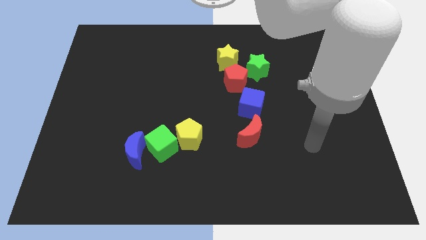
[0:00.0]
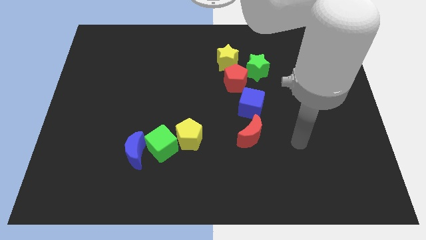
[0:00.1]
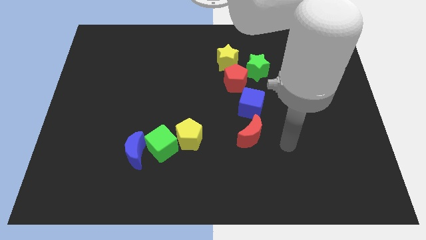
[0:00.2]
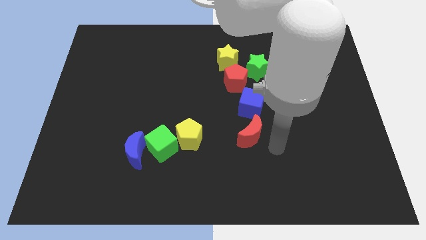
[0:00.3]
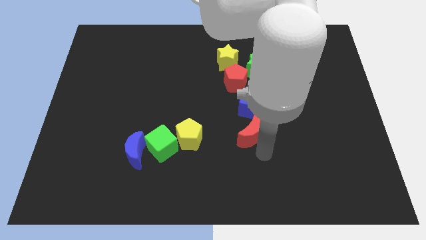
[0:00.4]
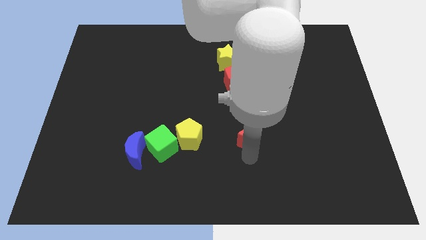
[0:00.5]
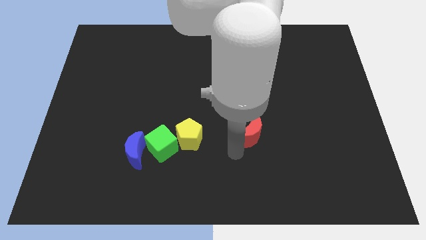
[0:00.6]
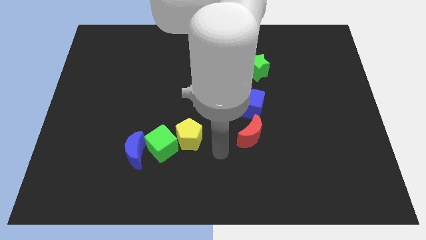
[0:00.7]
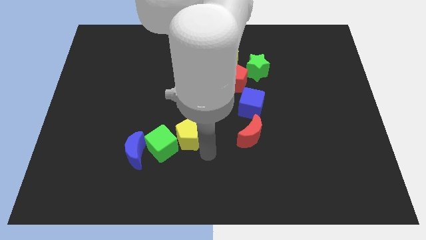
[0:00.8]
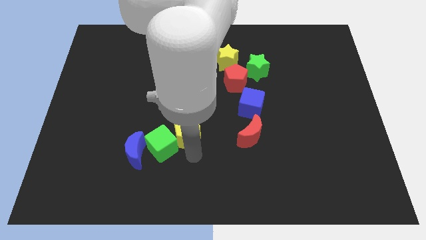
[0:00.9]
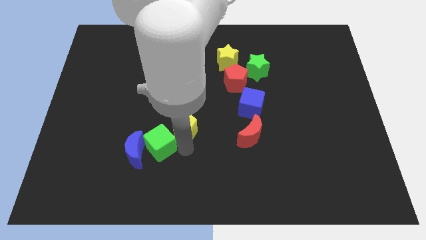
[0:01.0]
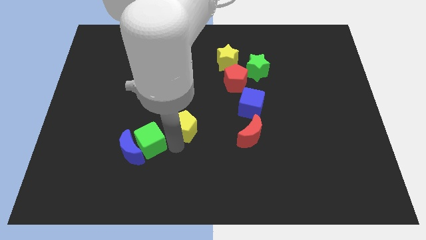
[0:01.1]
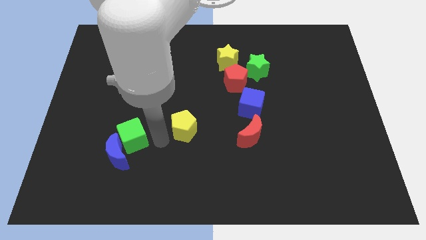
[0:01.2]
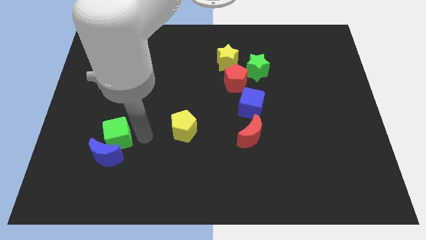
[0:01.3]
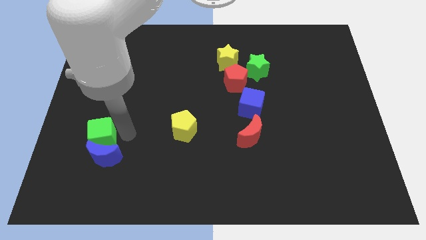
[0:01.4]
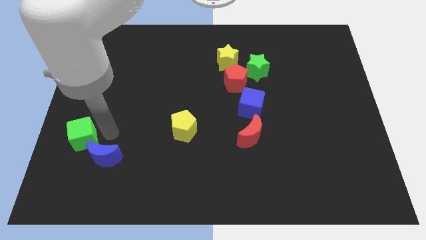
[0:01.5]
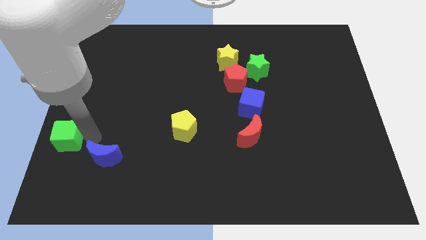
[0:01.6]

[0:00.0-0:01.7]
move the blue moon away from the green cube

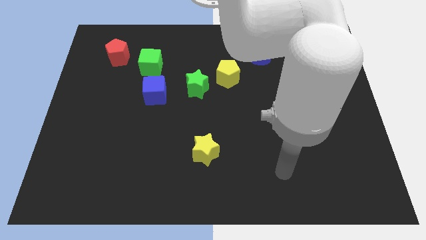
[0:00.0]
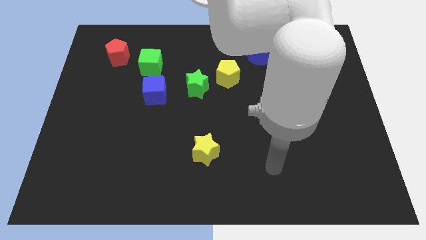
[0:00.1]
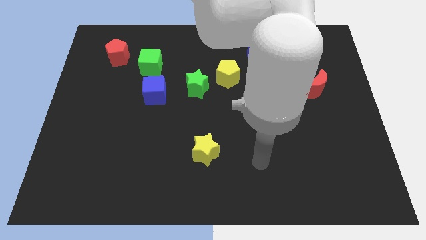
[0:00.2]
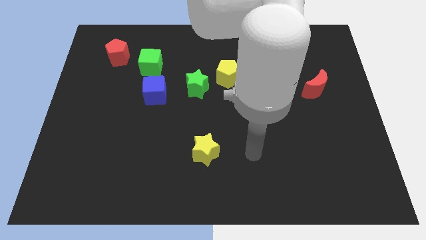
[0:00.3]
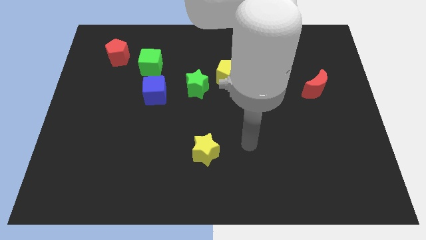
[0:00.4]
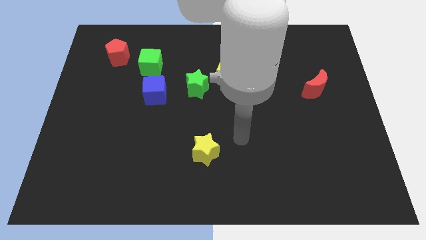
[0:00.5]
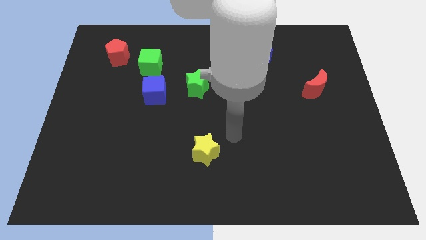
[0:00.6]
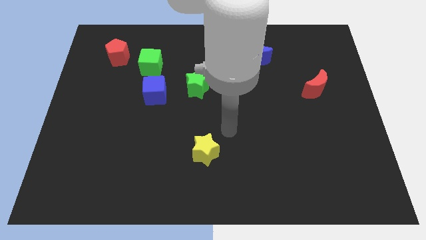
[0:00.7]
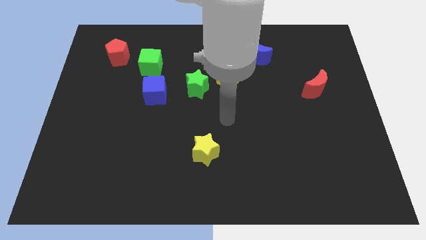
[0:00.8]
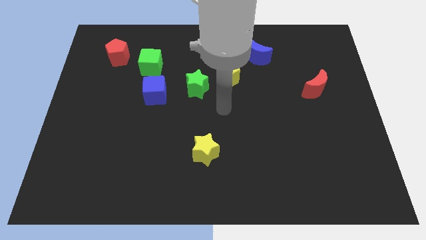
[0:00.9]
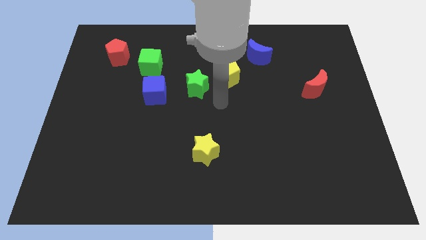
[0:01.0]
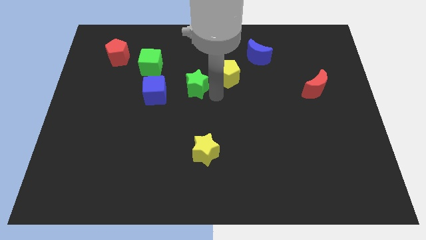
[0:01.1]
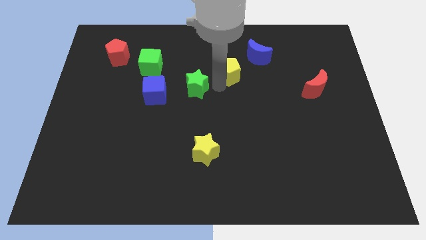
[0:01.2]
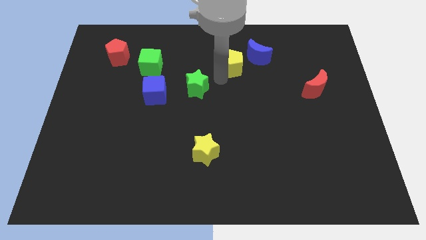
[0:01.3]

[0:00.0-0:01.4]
pull the green star apart from the yellow pentagon

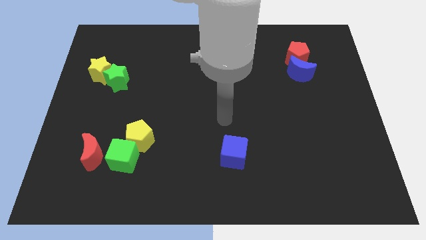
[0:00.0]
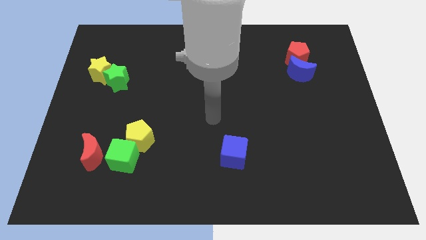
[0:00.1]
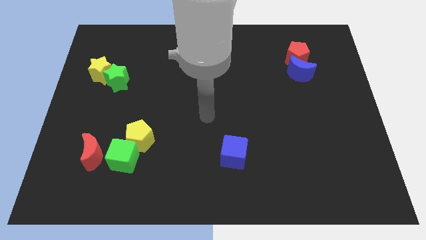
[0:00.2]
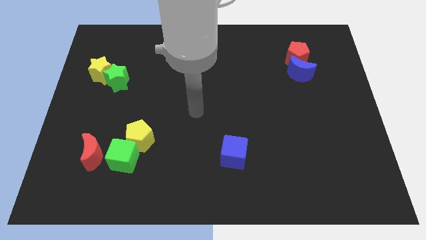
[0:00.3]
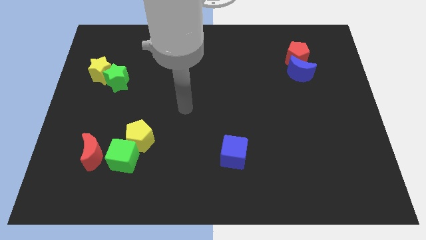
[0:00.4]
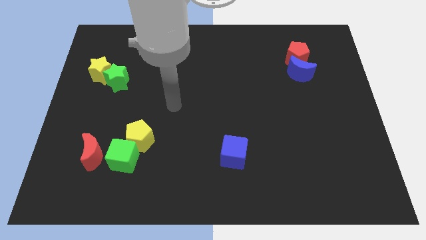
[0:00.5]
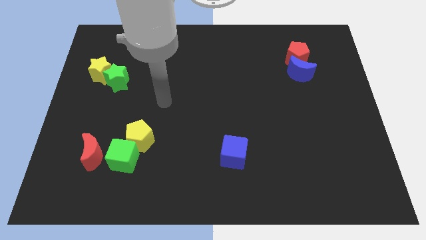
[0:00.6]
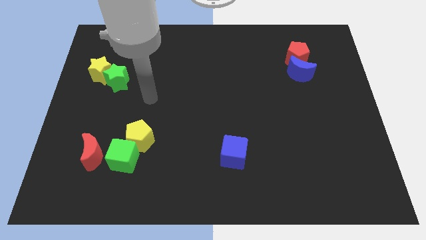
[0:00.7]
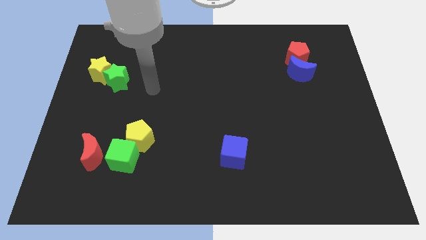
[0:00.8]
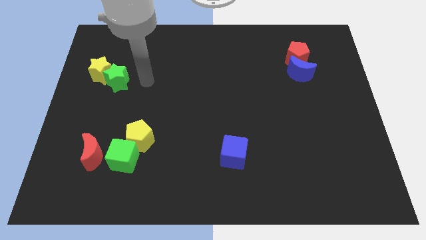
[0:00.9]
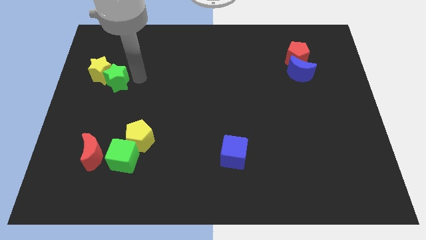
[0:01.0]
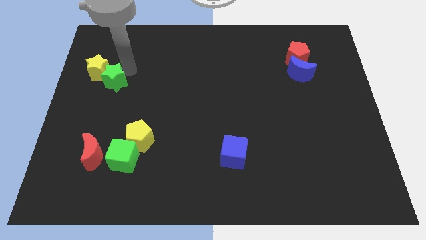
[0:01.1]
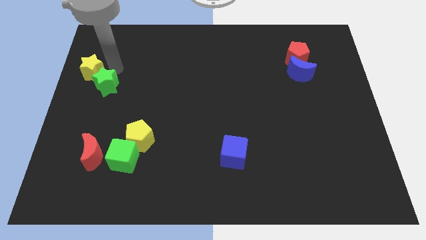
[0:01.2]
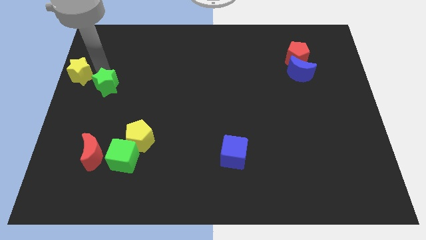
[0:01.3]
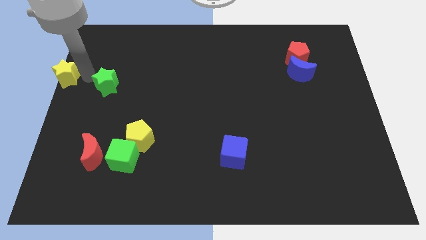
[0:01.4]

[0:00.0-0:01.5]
separate the green star from the yellow star

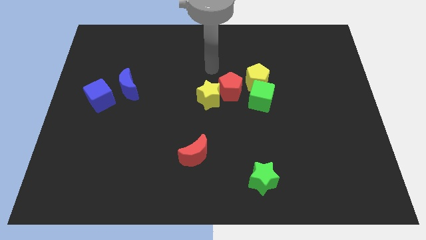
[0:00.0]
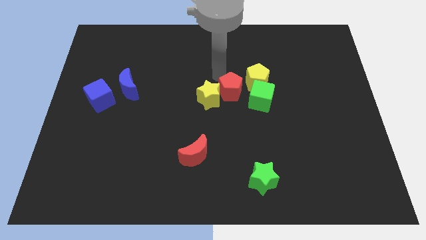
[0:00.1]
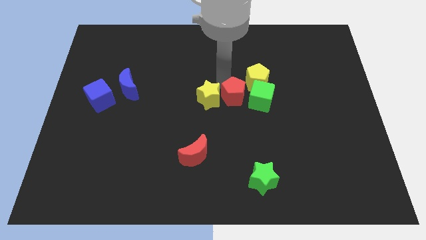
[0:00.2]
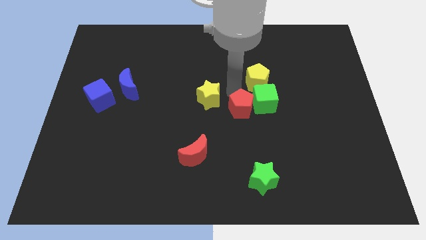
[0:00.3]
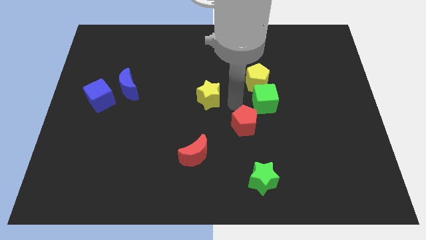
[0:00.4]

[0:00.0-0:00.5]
pull the yellow star apart from the red pentagon

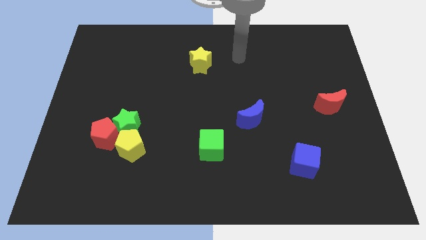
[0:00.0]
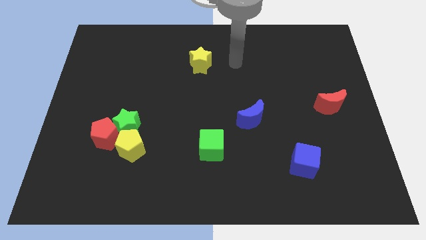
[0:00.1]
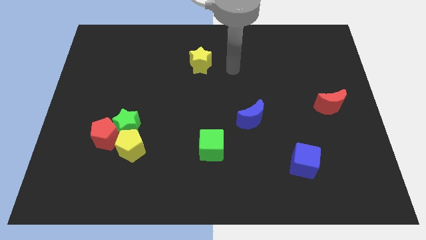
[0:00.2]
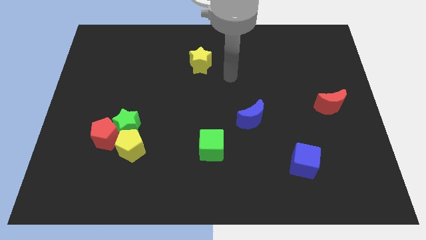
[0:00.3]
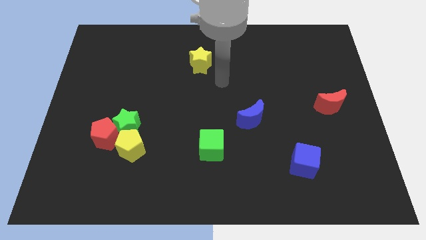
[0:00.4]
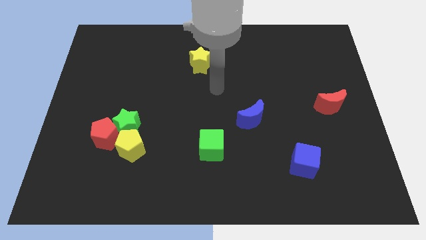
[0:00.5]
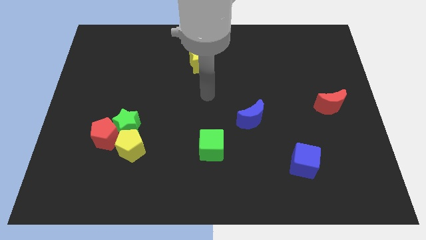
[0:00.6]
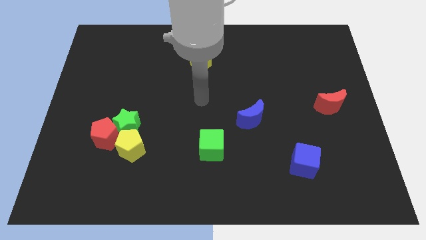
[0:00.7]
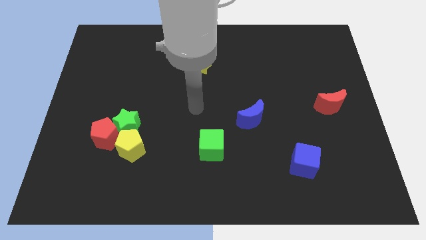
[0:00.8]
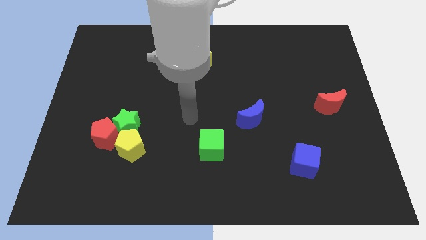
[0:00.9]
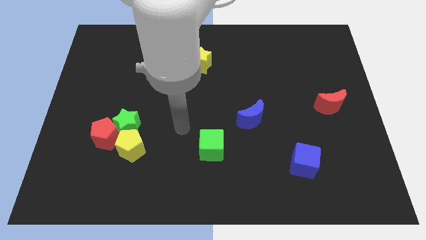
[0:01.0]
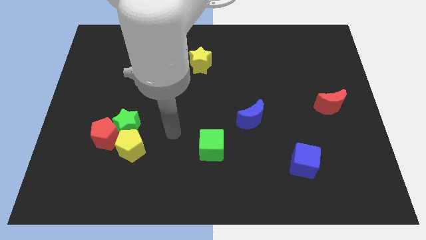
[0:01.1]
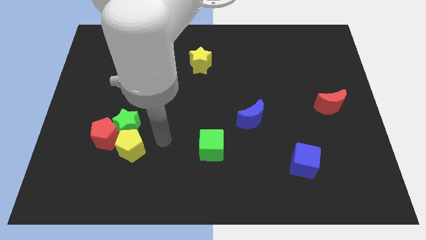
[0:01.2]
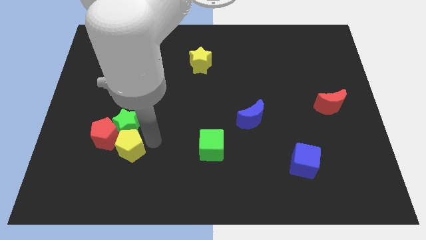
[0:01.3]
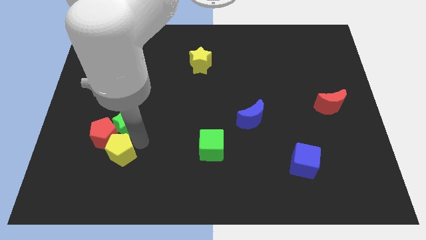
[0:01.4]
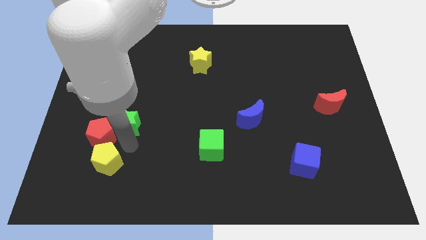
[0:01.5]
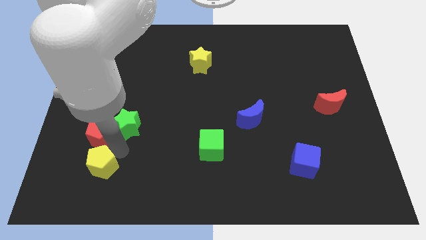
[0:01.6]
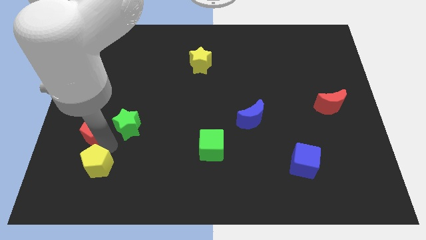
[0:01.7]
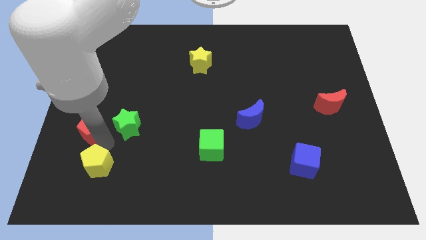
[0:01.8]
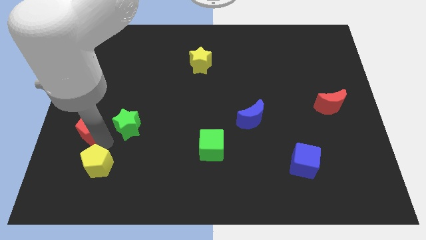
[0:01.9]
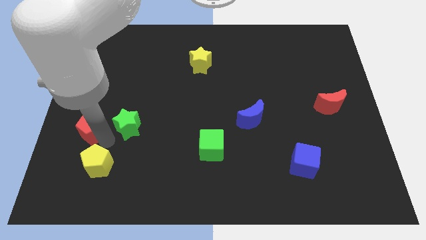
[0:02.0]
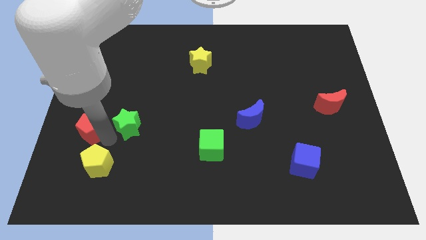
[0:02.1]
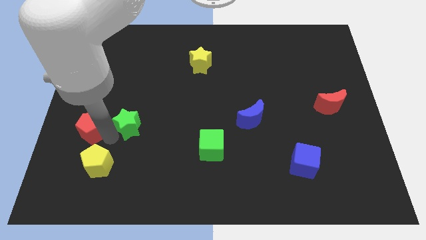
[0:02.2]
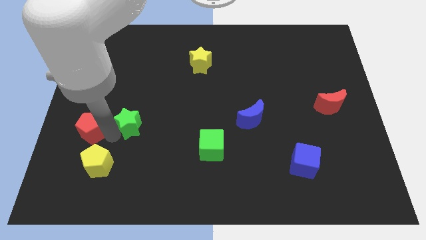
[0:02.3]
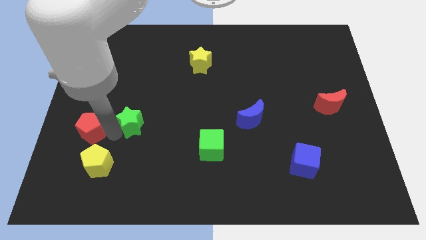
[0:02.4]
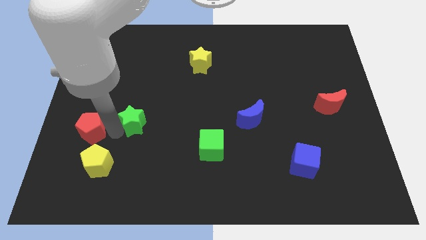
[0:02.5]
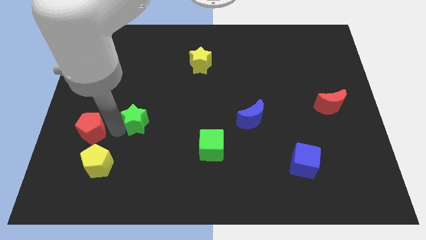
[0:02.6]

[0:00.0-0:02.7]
pull the green star apart from the red pentagon and yellow pentagon

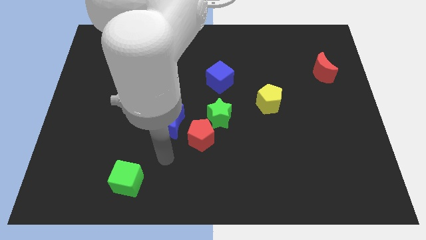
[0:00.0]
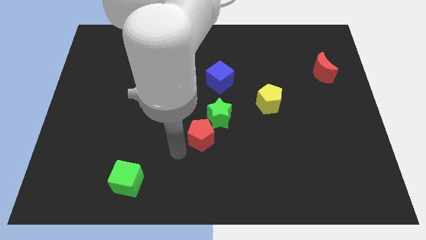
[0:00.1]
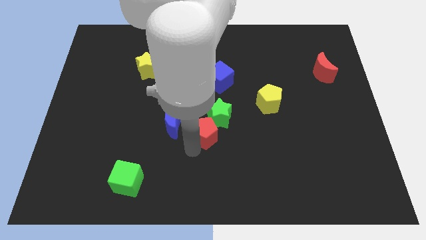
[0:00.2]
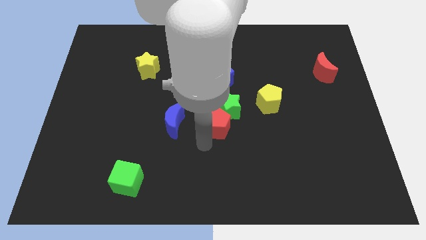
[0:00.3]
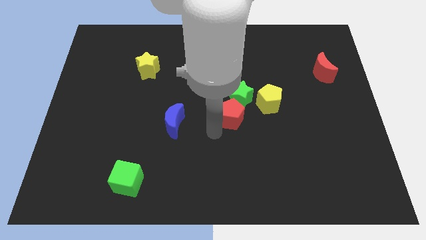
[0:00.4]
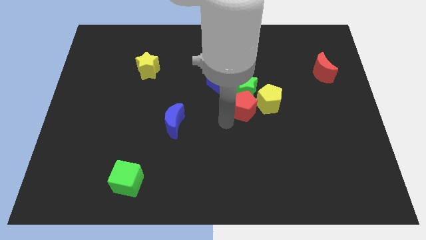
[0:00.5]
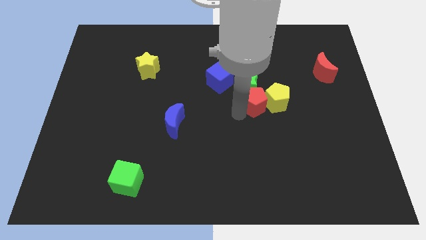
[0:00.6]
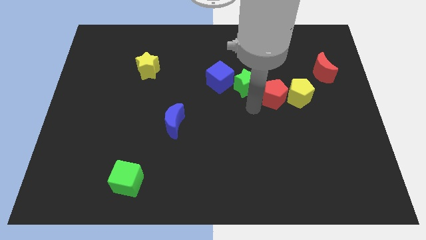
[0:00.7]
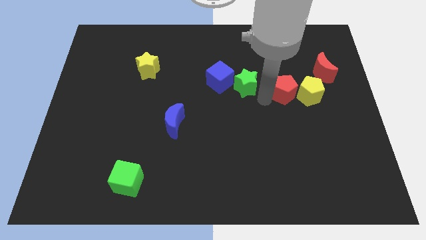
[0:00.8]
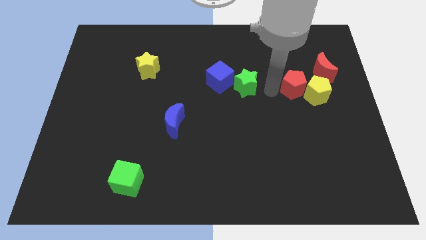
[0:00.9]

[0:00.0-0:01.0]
move the green star away from the red pentagon

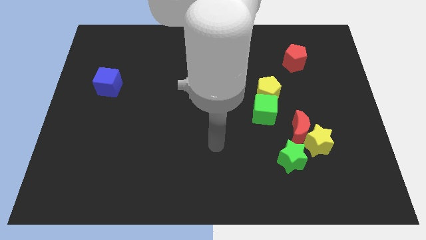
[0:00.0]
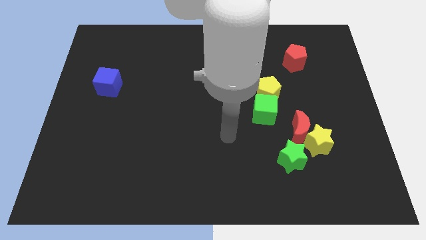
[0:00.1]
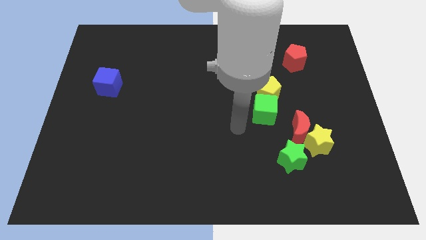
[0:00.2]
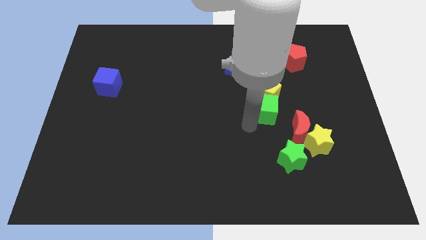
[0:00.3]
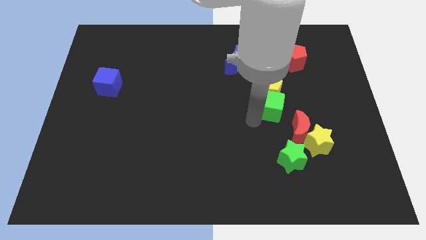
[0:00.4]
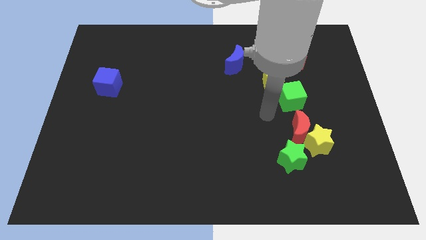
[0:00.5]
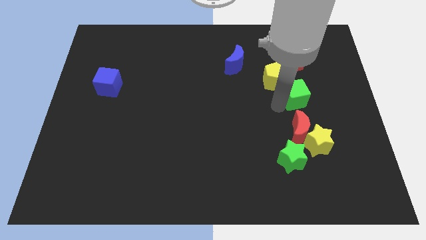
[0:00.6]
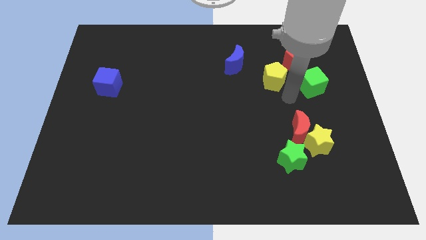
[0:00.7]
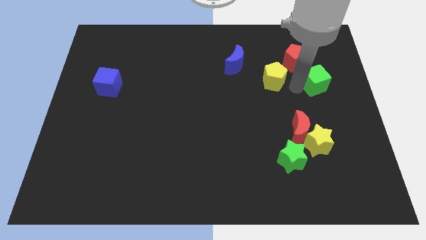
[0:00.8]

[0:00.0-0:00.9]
move the yellow pentagon away from the green cube
